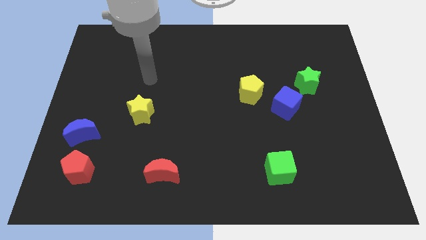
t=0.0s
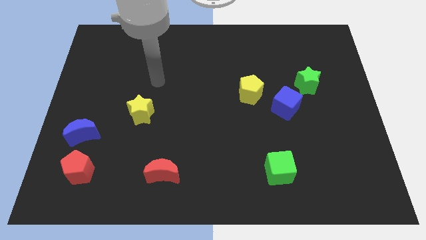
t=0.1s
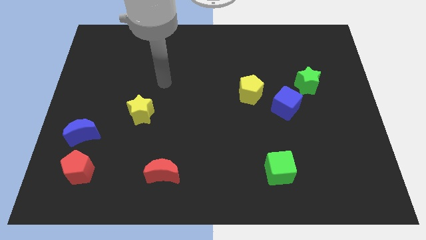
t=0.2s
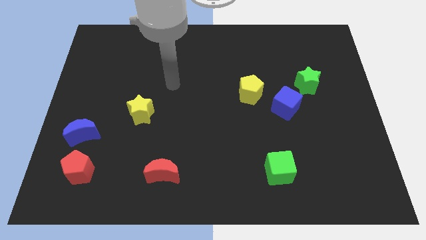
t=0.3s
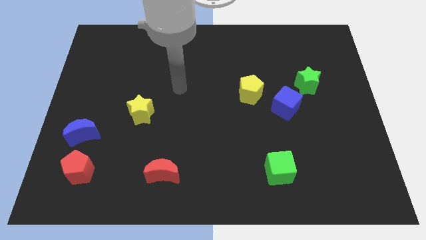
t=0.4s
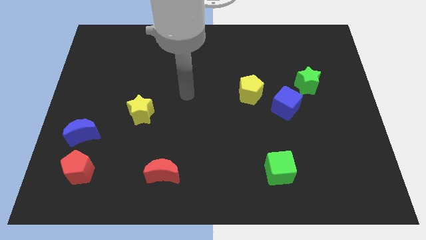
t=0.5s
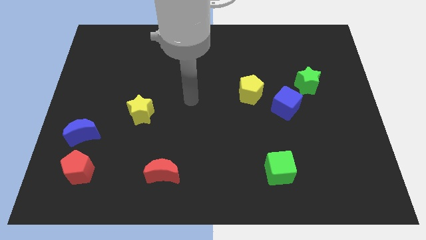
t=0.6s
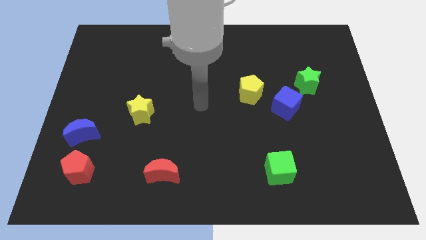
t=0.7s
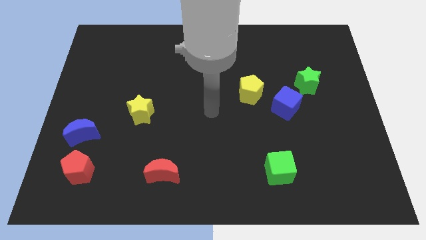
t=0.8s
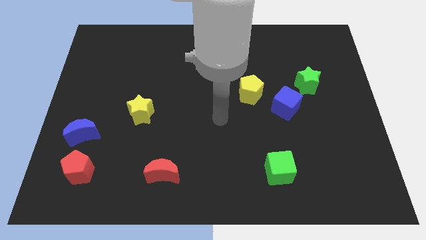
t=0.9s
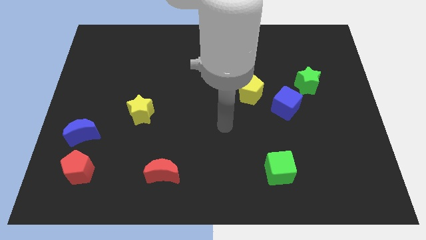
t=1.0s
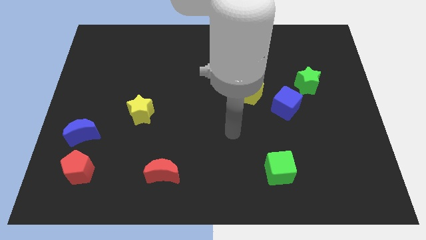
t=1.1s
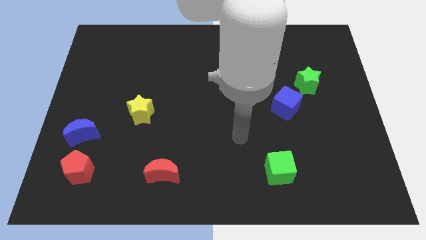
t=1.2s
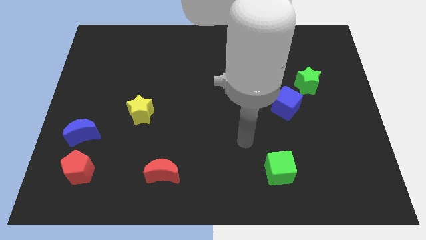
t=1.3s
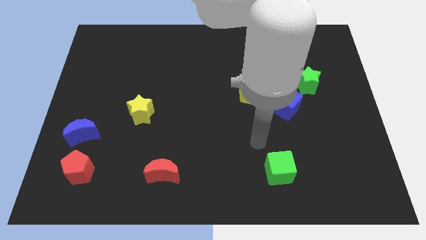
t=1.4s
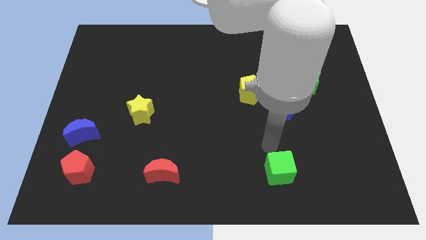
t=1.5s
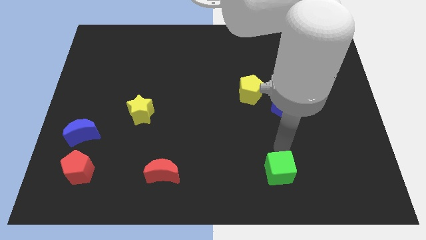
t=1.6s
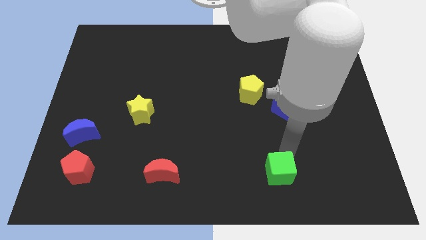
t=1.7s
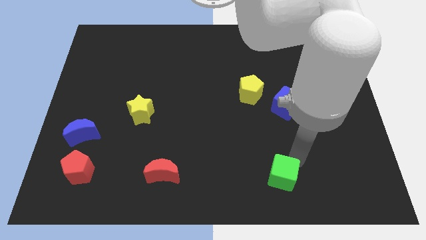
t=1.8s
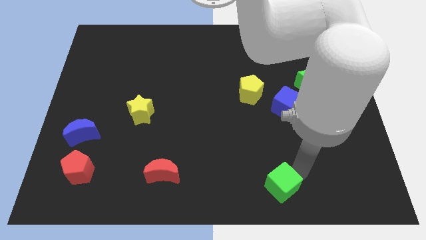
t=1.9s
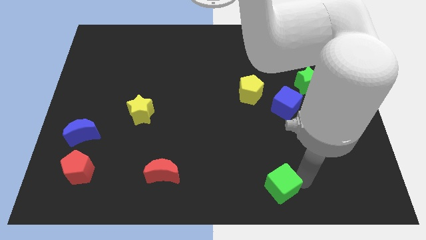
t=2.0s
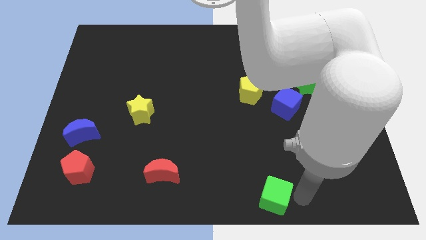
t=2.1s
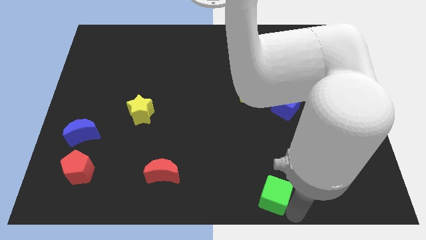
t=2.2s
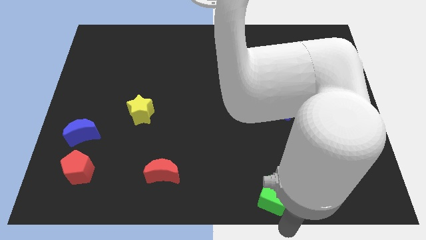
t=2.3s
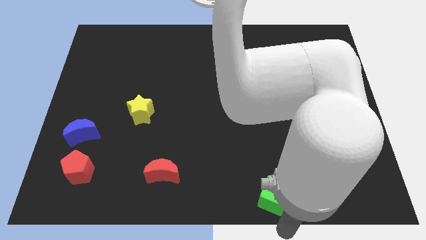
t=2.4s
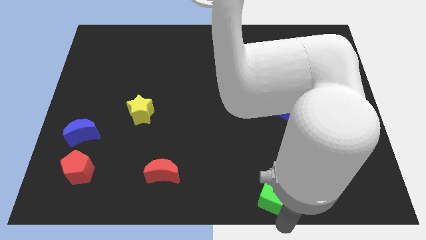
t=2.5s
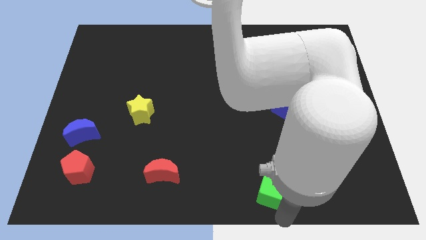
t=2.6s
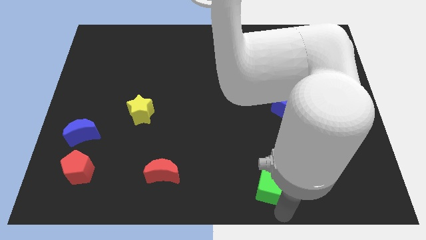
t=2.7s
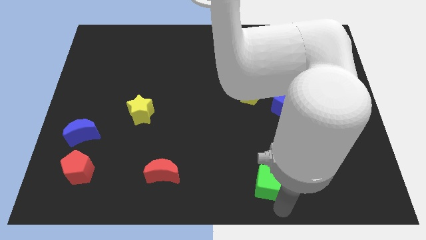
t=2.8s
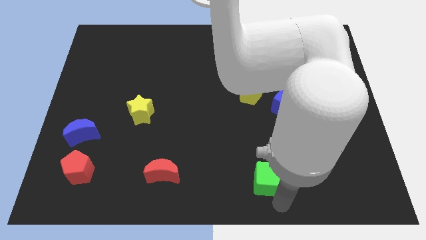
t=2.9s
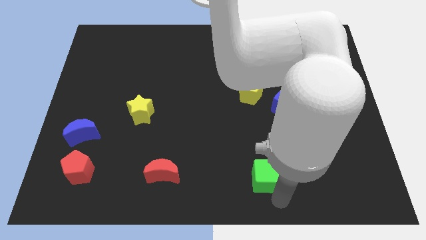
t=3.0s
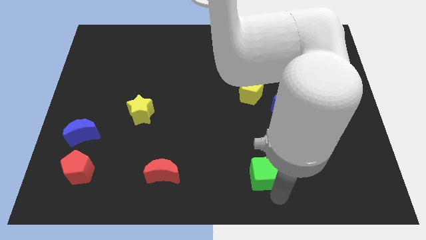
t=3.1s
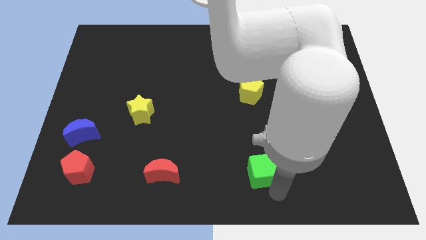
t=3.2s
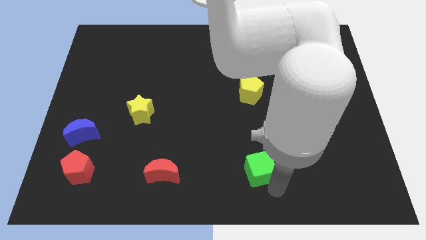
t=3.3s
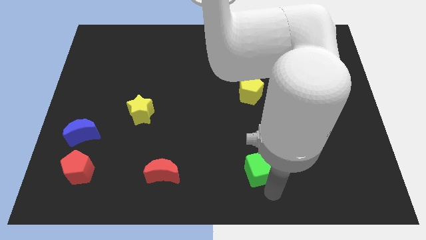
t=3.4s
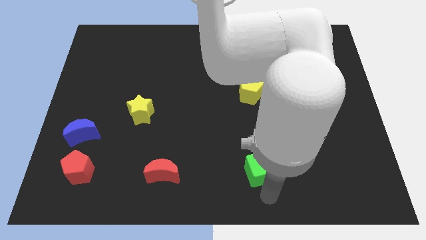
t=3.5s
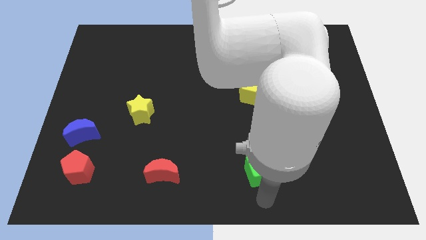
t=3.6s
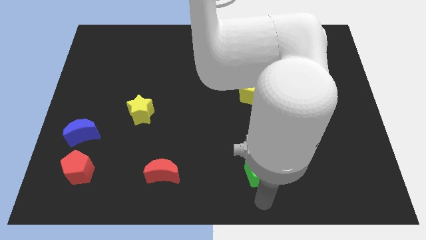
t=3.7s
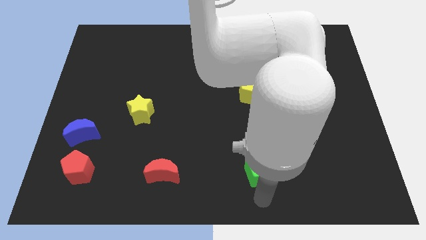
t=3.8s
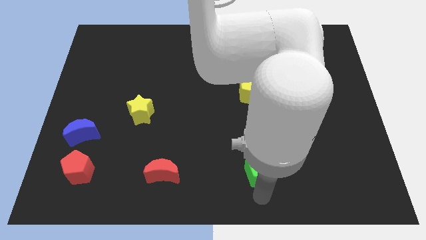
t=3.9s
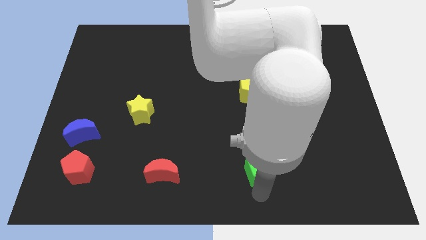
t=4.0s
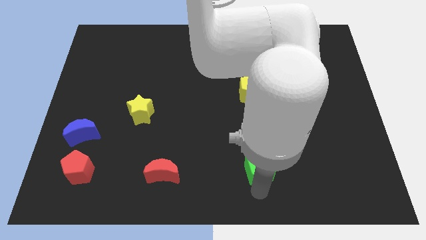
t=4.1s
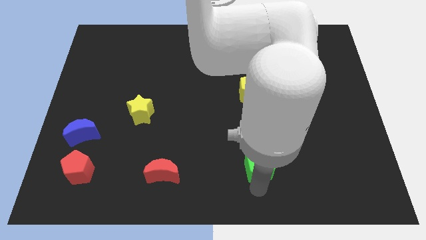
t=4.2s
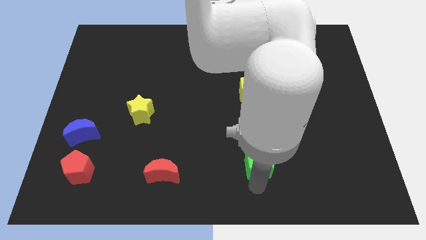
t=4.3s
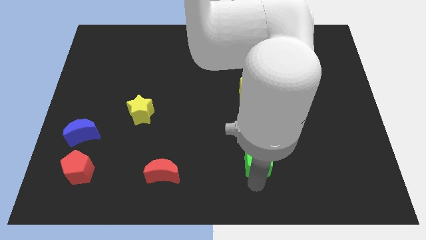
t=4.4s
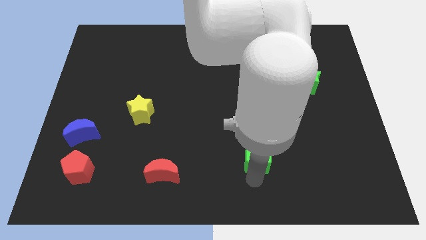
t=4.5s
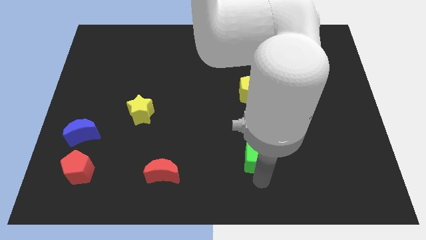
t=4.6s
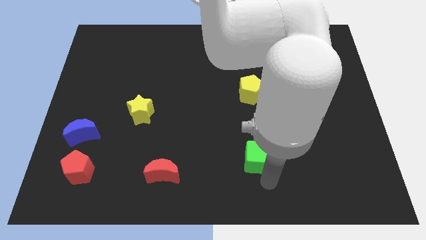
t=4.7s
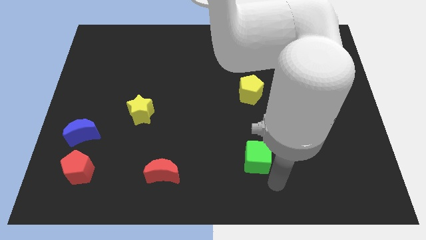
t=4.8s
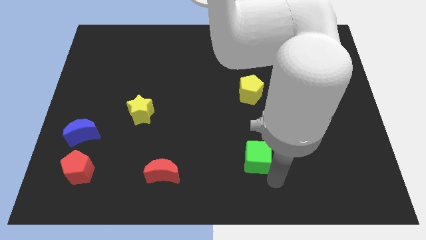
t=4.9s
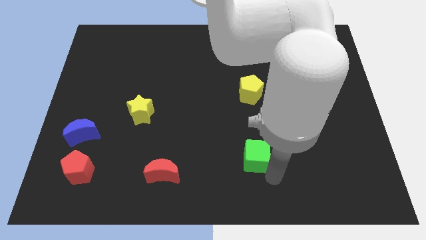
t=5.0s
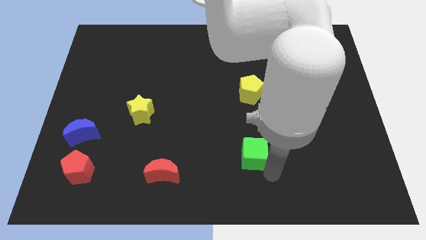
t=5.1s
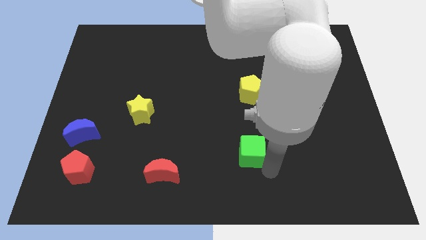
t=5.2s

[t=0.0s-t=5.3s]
slightly push the green cube up and then left

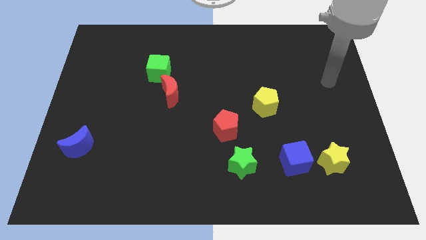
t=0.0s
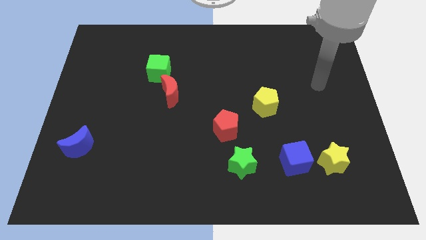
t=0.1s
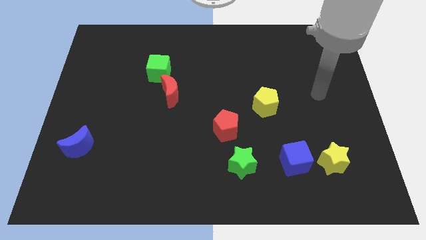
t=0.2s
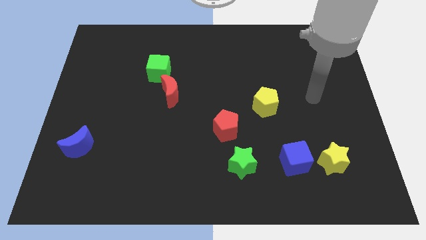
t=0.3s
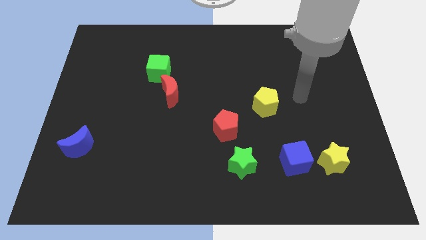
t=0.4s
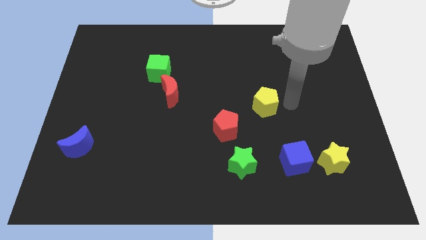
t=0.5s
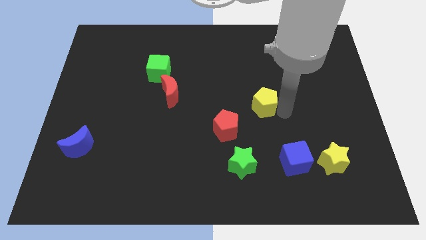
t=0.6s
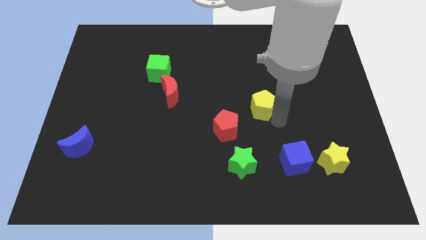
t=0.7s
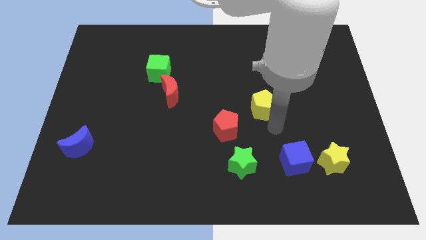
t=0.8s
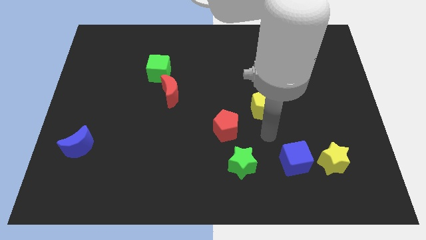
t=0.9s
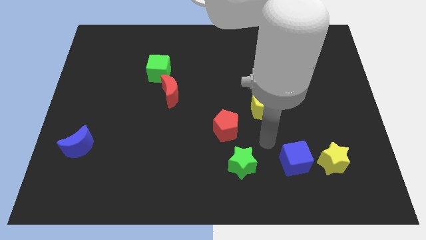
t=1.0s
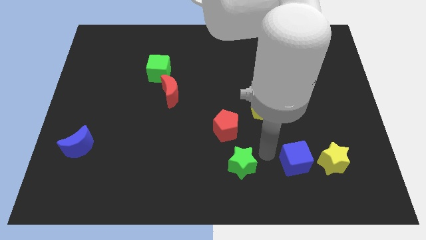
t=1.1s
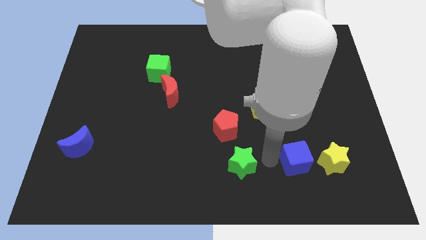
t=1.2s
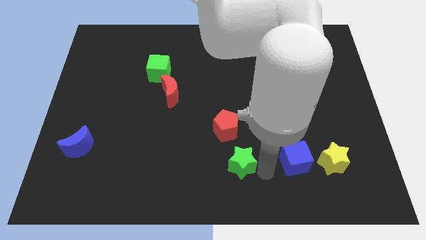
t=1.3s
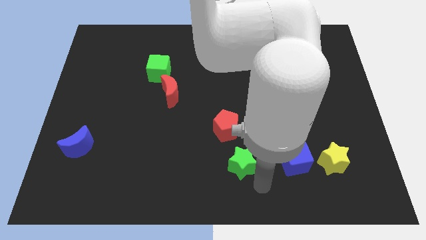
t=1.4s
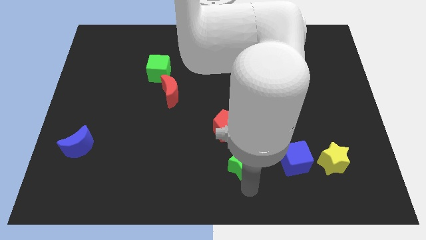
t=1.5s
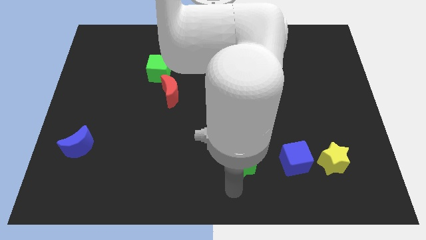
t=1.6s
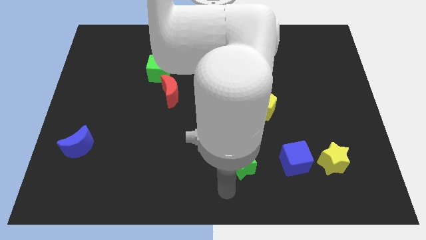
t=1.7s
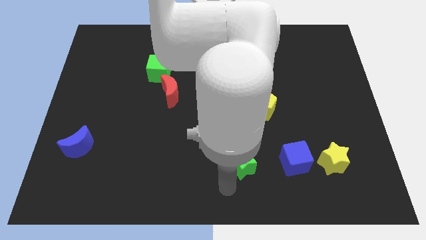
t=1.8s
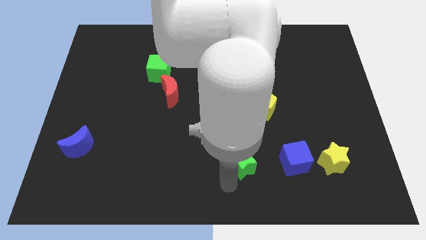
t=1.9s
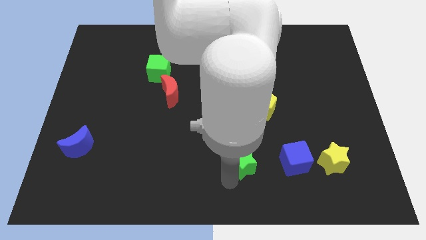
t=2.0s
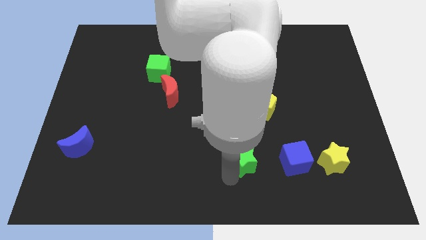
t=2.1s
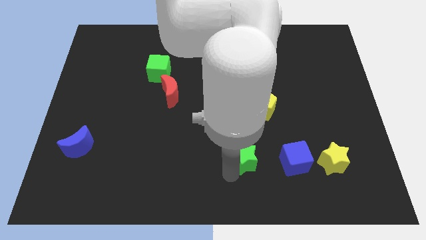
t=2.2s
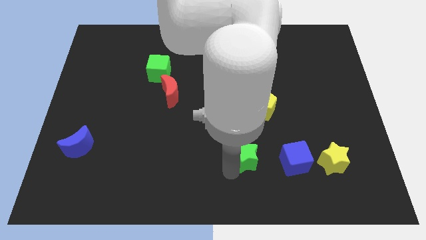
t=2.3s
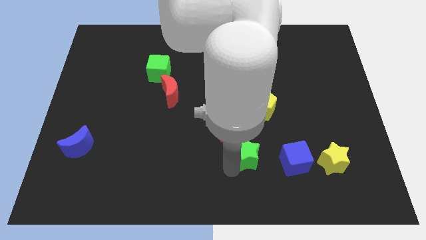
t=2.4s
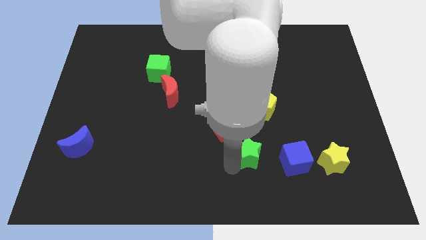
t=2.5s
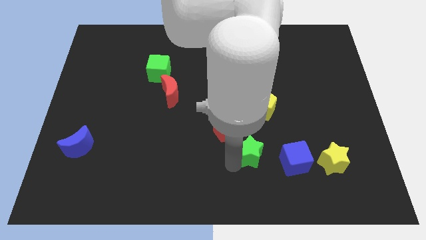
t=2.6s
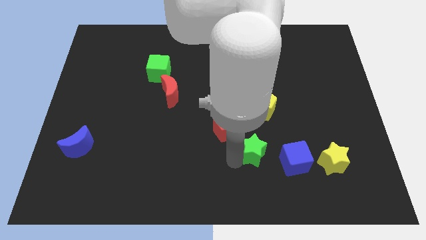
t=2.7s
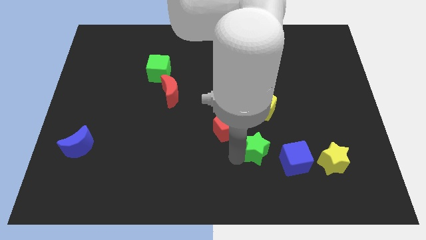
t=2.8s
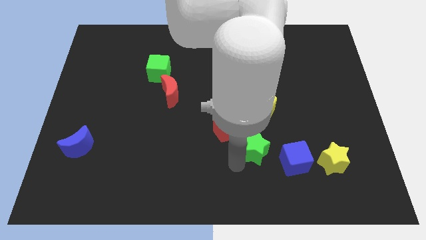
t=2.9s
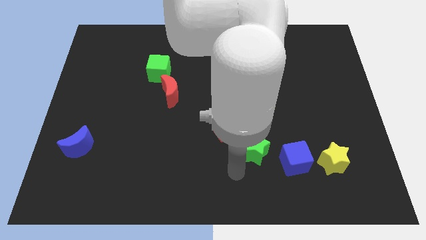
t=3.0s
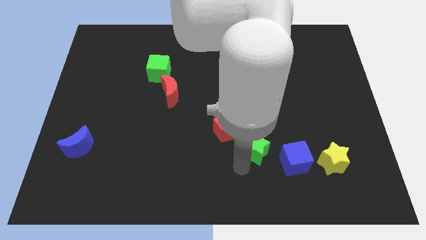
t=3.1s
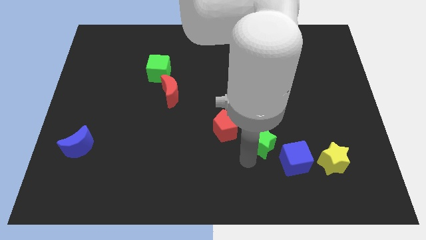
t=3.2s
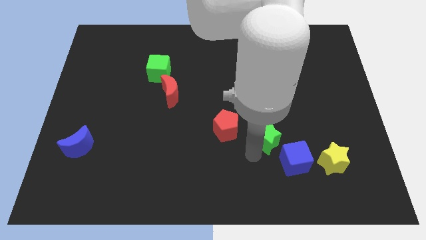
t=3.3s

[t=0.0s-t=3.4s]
push the green star a bit upwards and right diagonally
